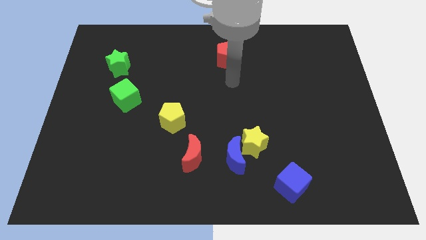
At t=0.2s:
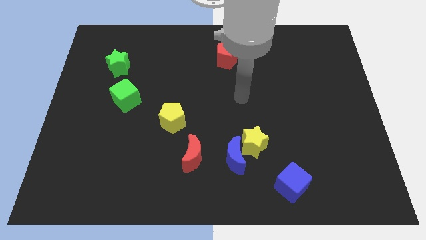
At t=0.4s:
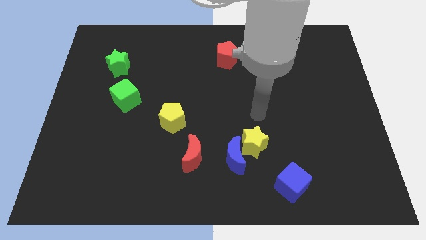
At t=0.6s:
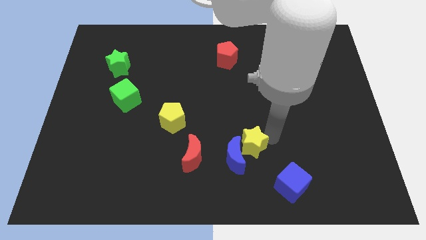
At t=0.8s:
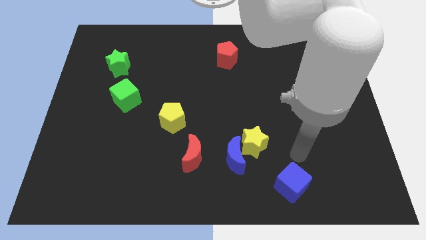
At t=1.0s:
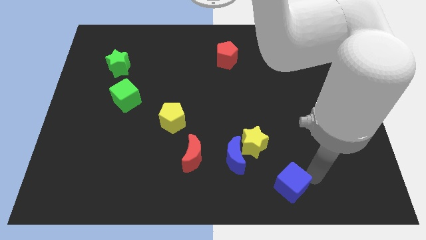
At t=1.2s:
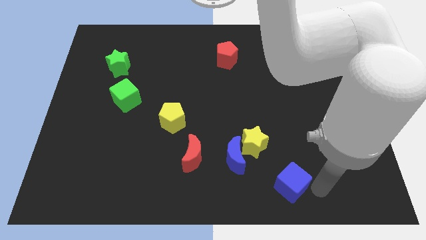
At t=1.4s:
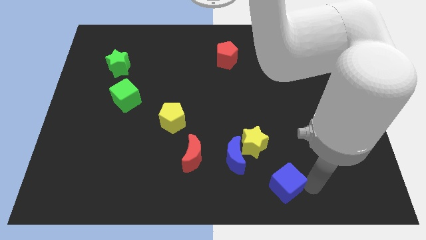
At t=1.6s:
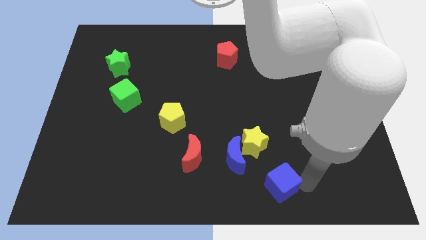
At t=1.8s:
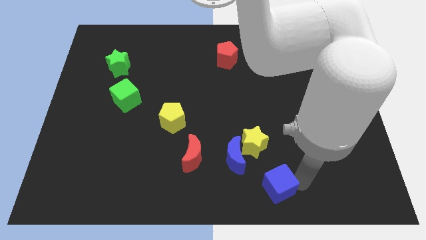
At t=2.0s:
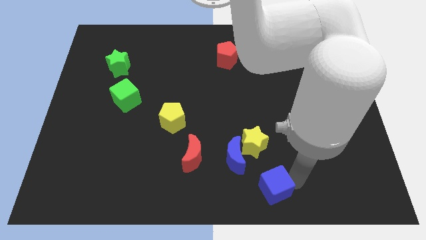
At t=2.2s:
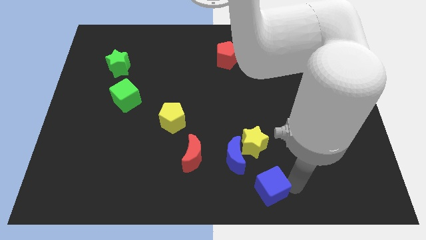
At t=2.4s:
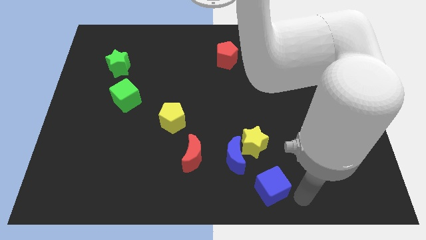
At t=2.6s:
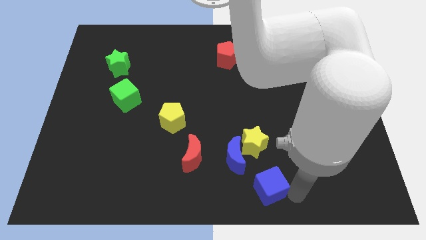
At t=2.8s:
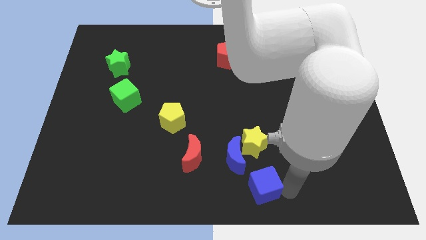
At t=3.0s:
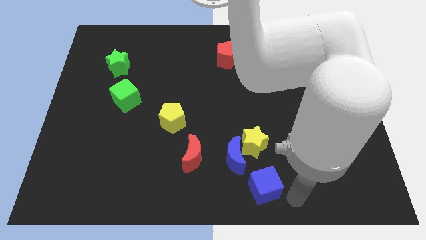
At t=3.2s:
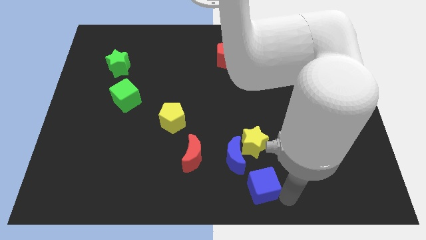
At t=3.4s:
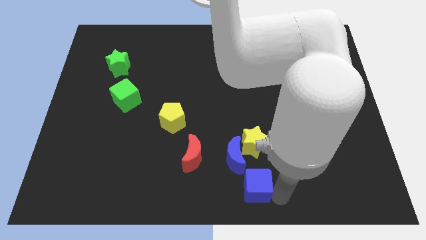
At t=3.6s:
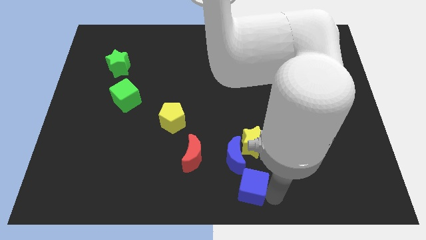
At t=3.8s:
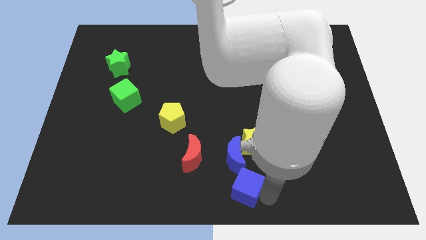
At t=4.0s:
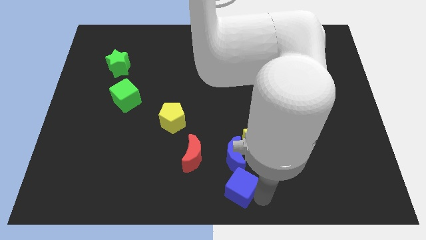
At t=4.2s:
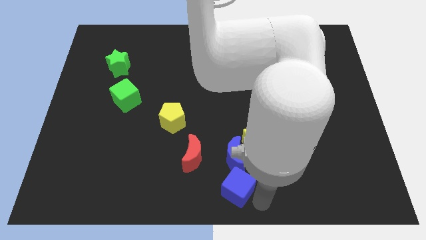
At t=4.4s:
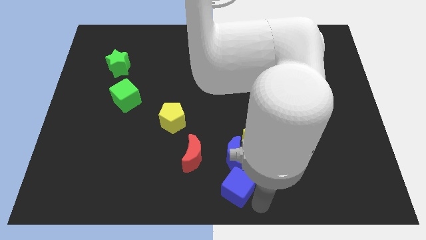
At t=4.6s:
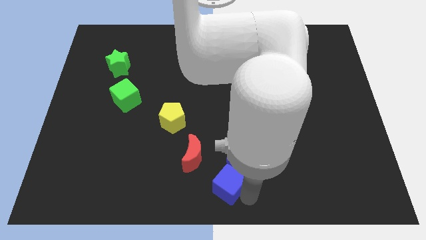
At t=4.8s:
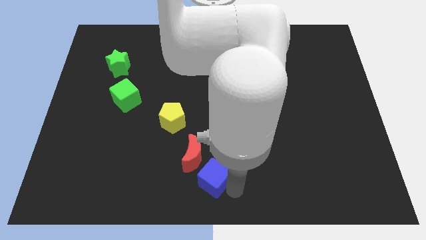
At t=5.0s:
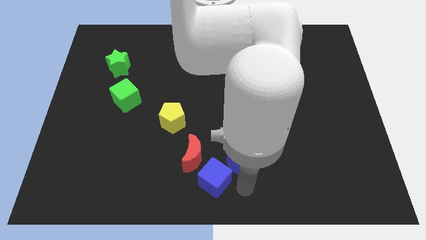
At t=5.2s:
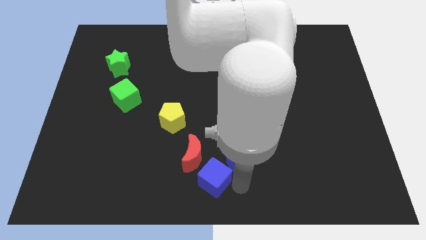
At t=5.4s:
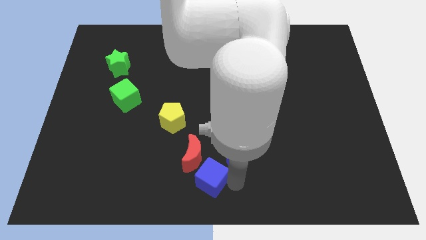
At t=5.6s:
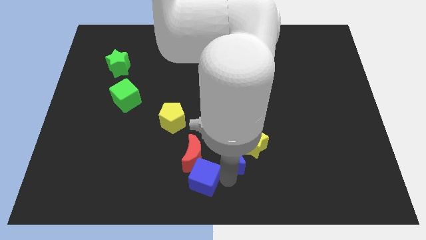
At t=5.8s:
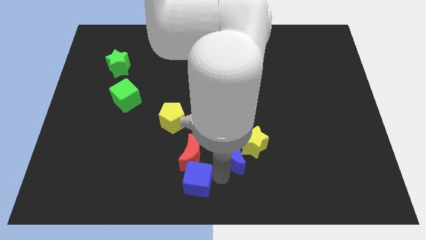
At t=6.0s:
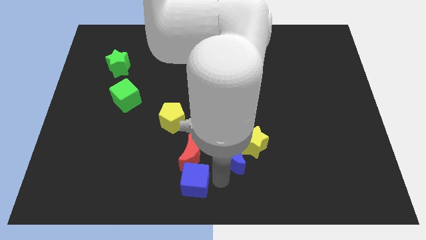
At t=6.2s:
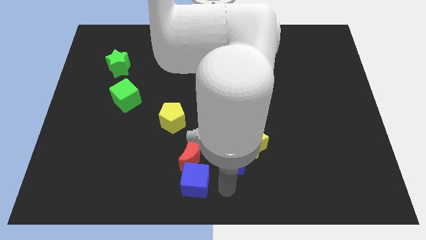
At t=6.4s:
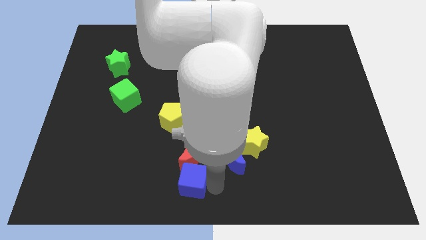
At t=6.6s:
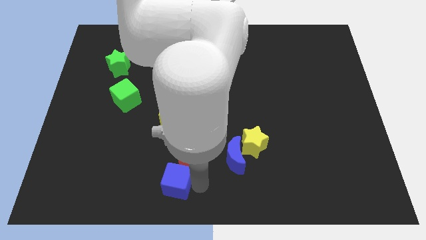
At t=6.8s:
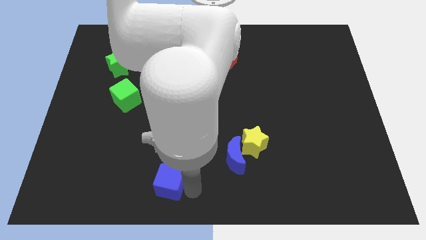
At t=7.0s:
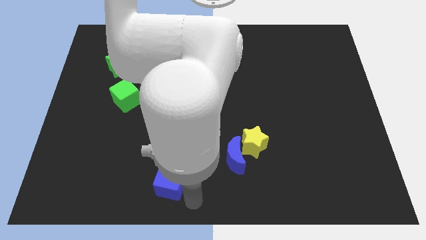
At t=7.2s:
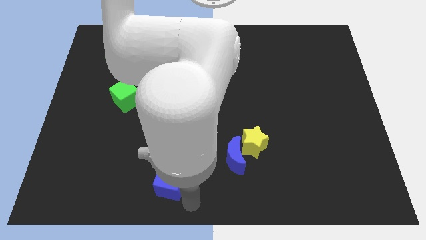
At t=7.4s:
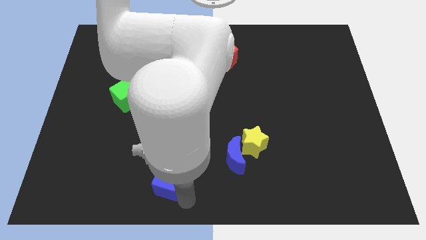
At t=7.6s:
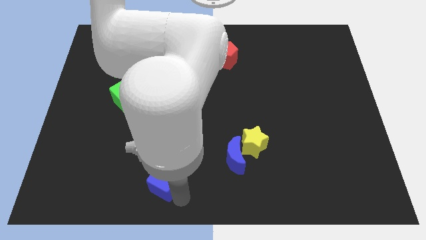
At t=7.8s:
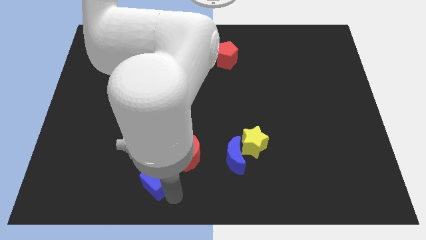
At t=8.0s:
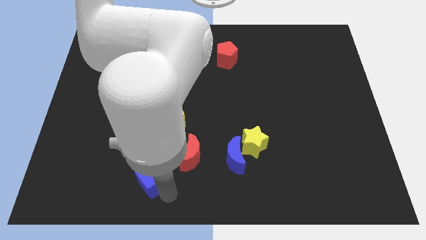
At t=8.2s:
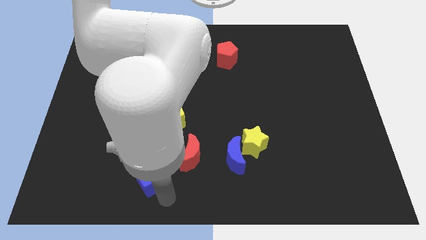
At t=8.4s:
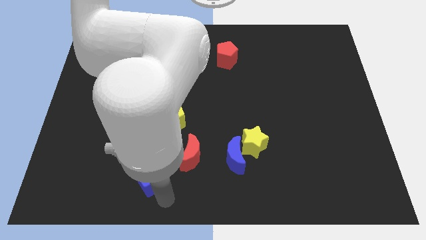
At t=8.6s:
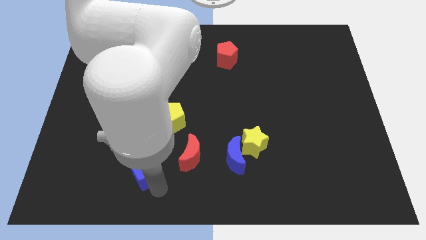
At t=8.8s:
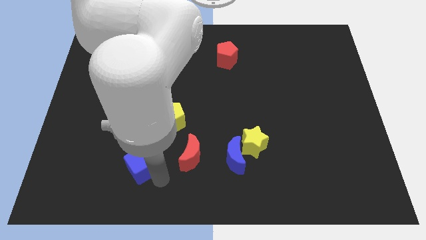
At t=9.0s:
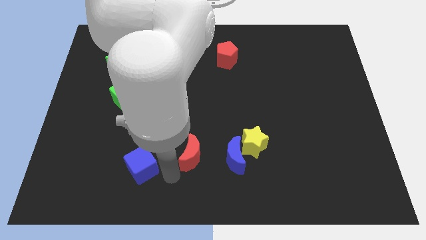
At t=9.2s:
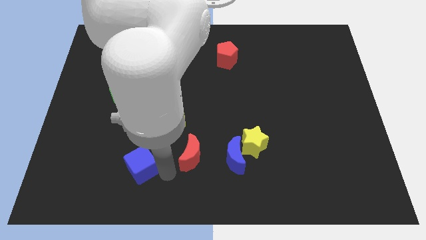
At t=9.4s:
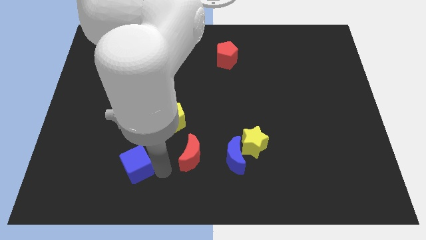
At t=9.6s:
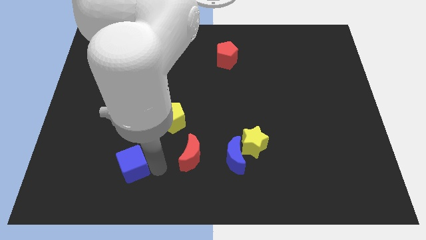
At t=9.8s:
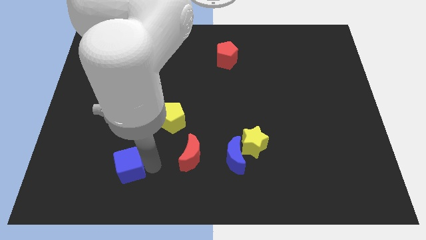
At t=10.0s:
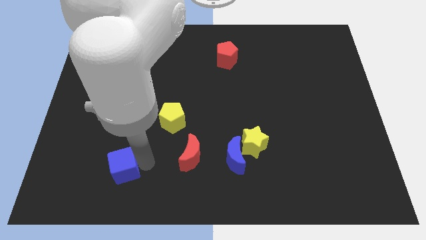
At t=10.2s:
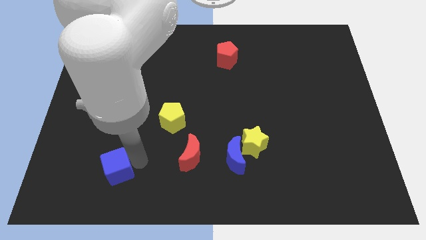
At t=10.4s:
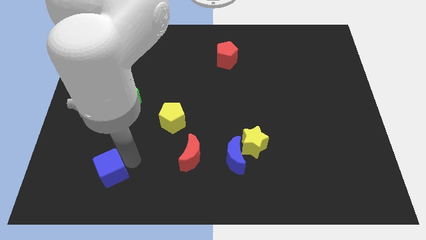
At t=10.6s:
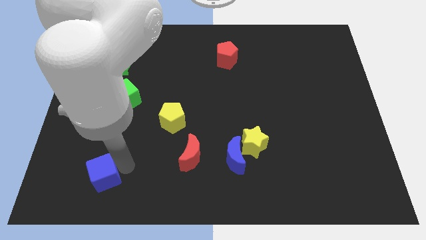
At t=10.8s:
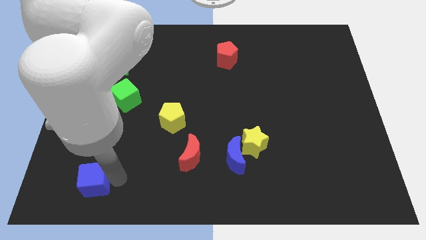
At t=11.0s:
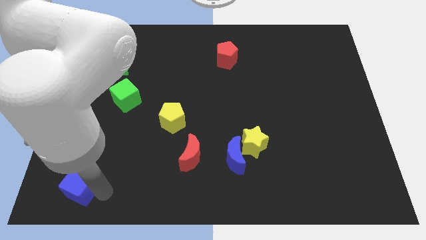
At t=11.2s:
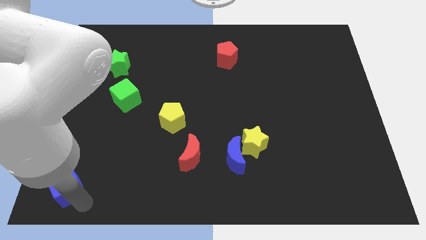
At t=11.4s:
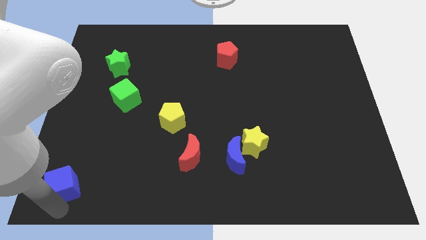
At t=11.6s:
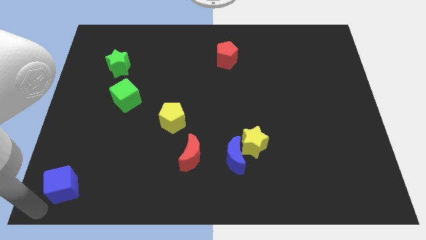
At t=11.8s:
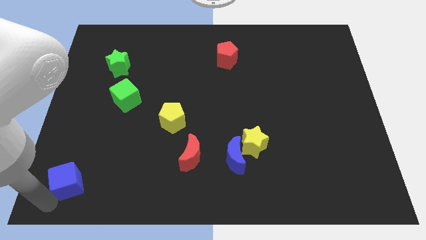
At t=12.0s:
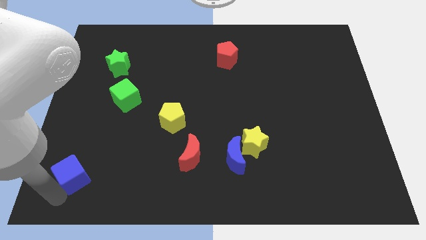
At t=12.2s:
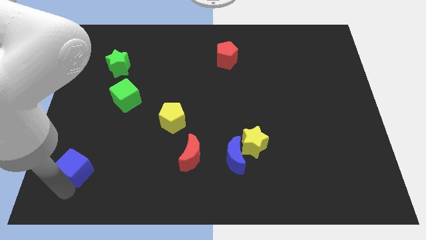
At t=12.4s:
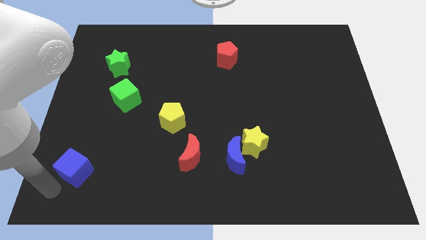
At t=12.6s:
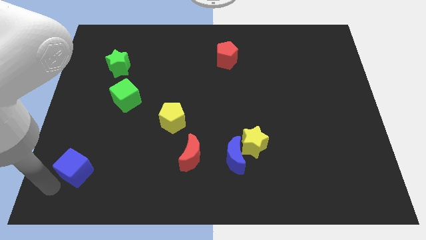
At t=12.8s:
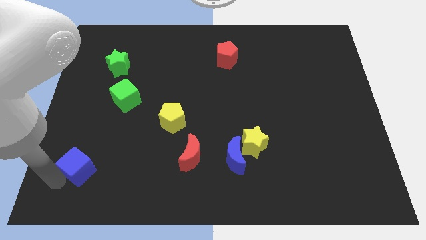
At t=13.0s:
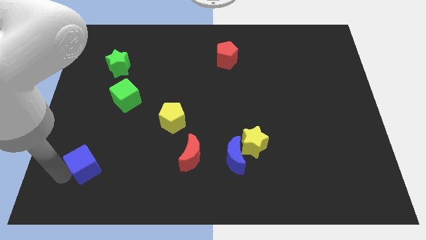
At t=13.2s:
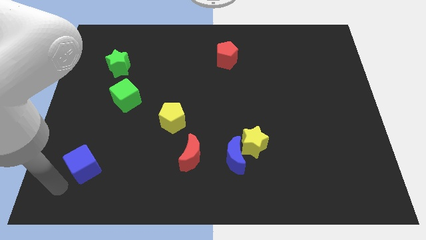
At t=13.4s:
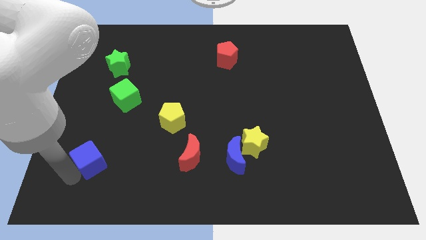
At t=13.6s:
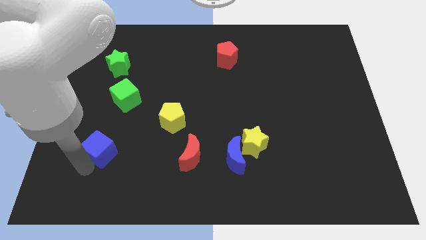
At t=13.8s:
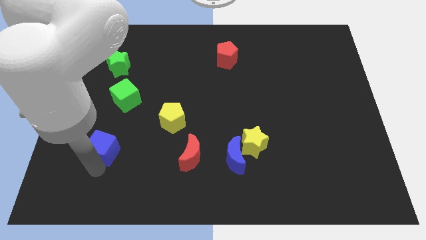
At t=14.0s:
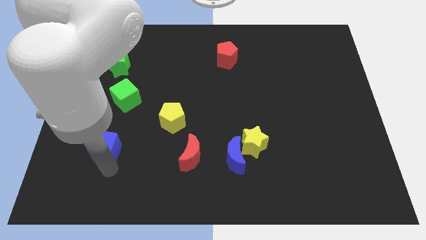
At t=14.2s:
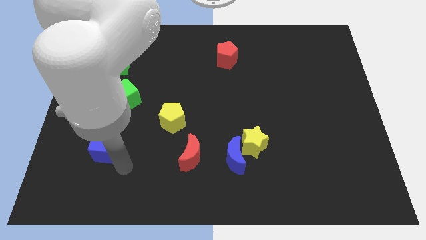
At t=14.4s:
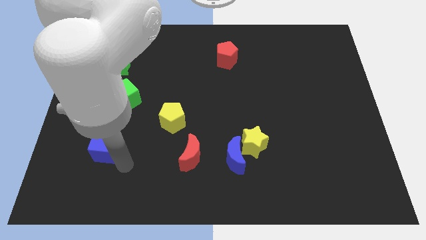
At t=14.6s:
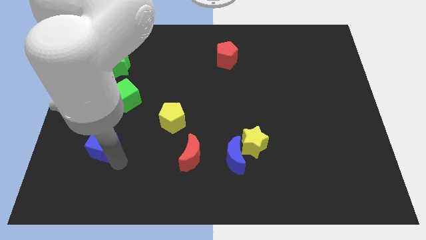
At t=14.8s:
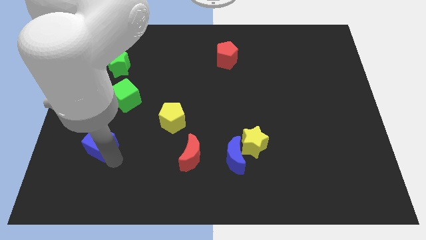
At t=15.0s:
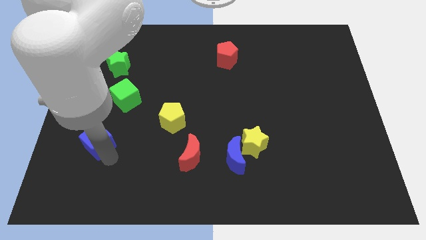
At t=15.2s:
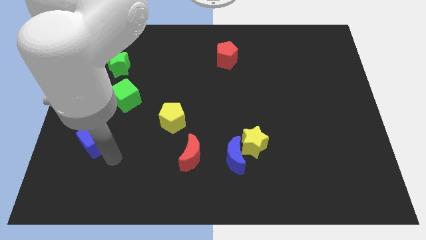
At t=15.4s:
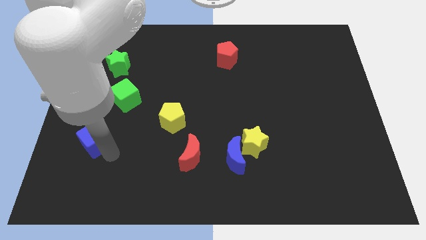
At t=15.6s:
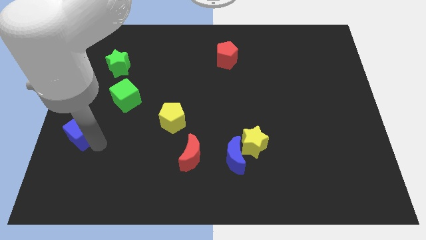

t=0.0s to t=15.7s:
slide the blue cube to the left side of the board
